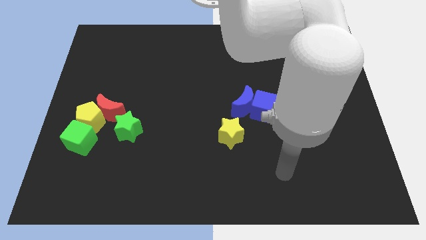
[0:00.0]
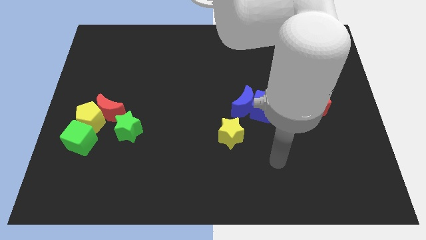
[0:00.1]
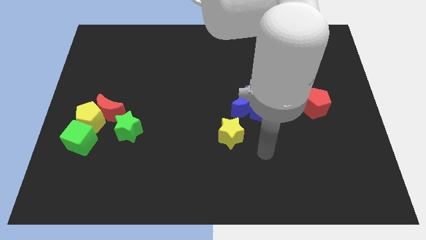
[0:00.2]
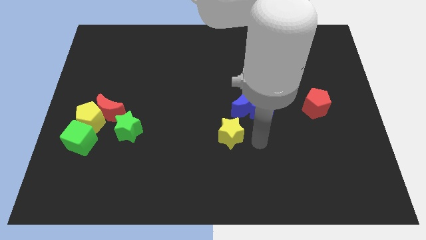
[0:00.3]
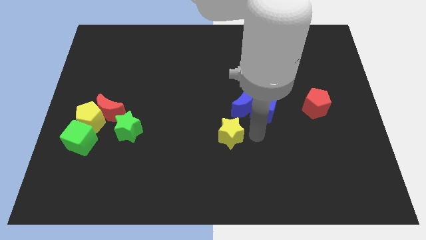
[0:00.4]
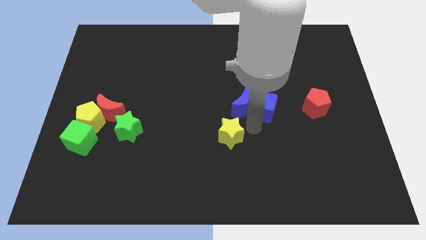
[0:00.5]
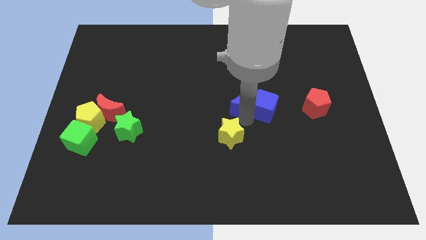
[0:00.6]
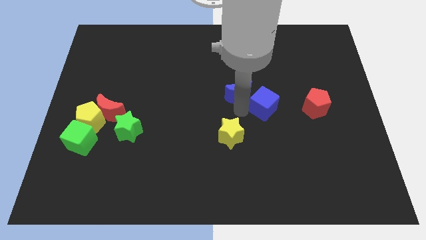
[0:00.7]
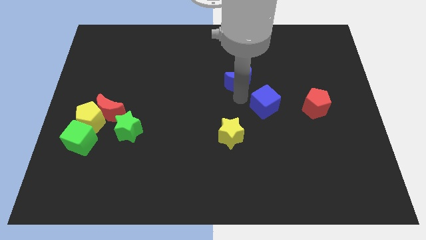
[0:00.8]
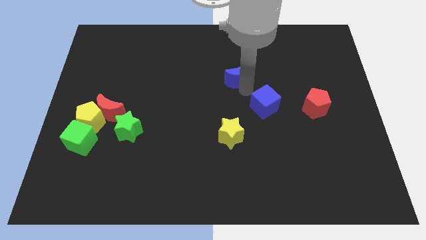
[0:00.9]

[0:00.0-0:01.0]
move the blue cube away from the blue moon

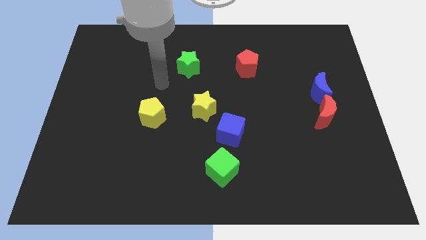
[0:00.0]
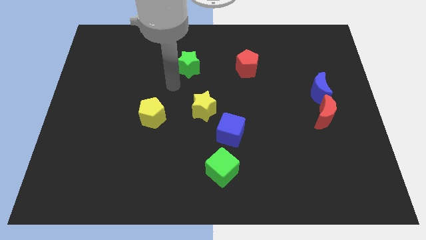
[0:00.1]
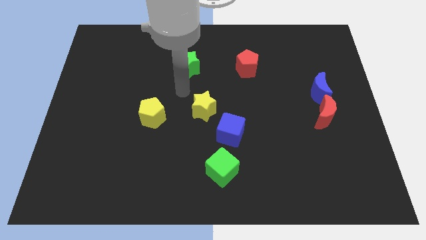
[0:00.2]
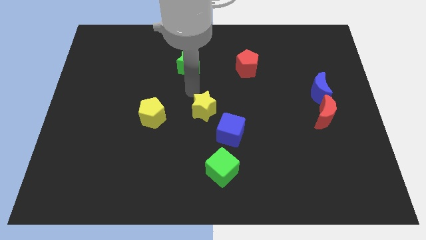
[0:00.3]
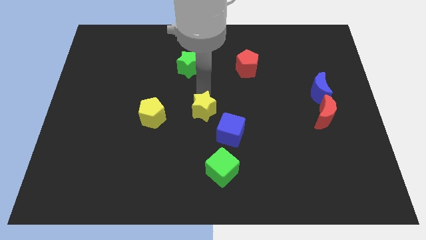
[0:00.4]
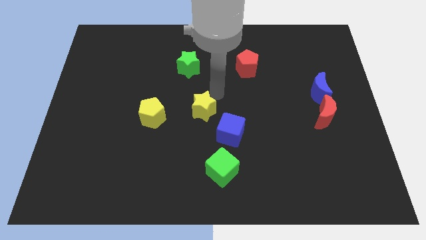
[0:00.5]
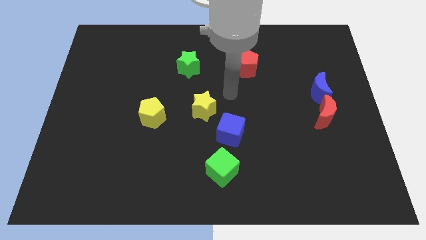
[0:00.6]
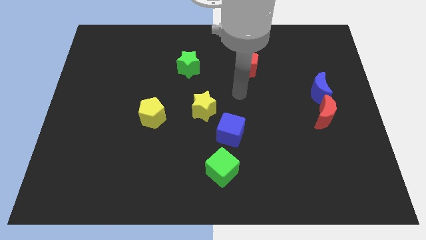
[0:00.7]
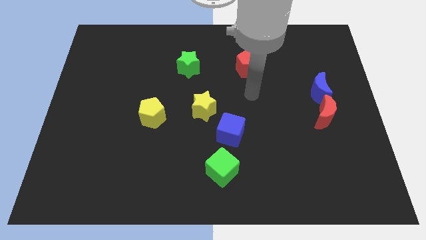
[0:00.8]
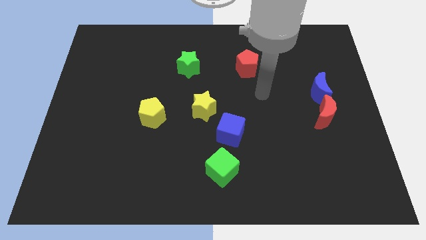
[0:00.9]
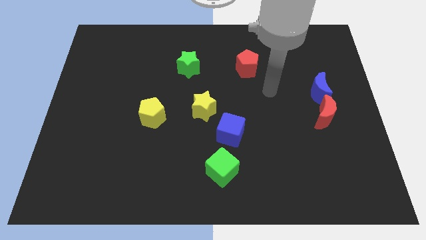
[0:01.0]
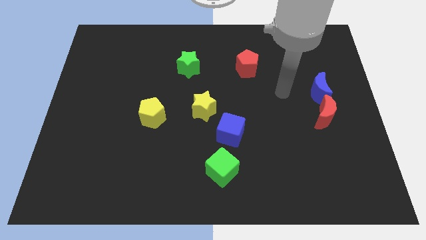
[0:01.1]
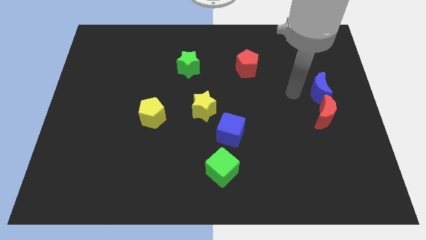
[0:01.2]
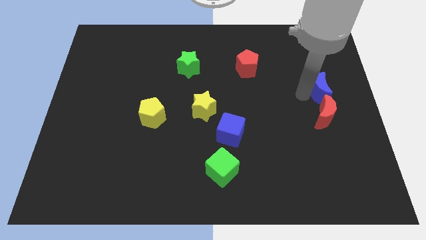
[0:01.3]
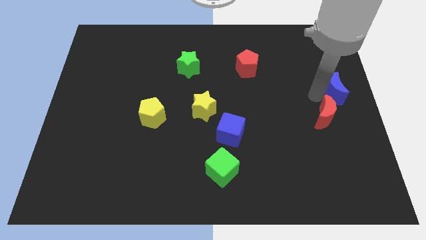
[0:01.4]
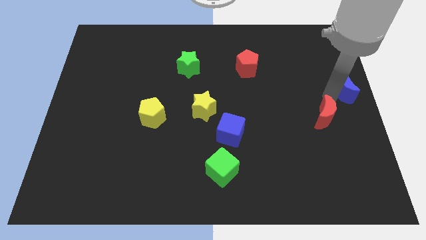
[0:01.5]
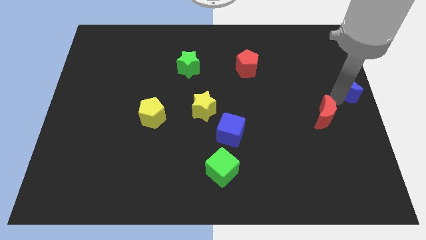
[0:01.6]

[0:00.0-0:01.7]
move the red moon away from the blue moon

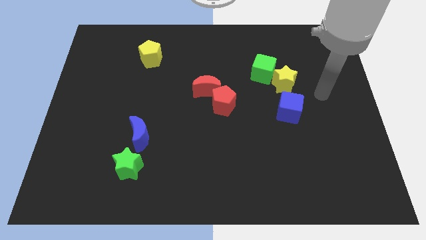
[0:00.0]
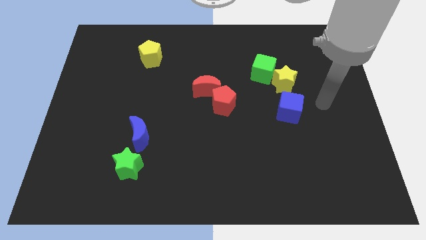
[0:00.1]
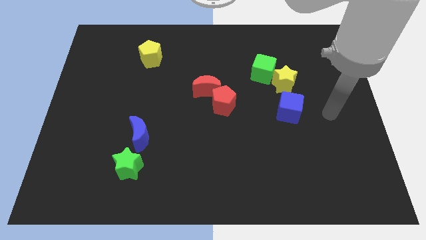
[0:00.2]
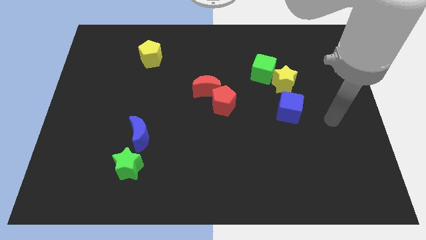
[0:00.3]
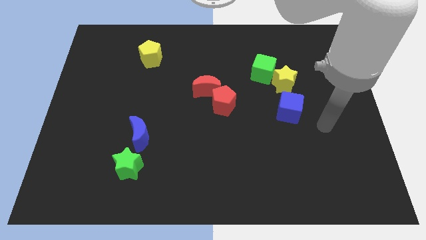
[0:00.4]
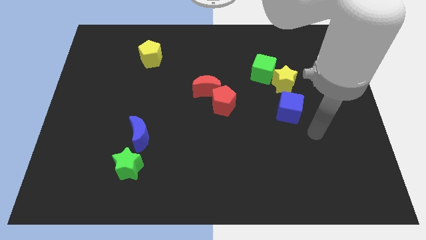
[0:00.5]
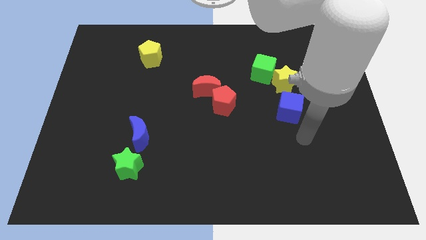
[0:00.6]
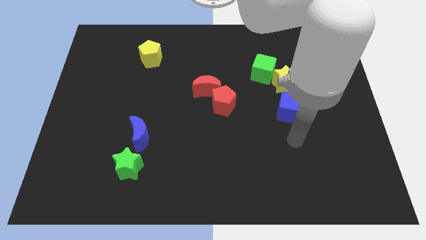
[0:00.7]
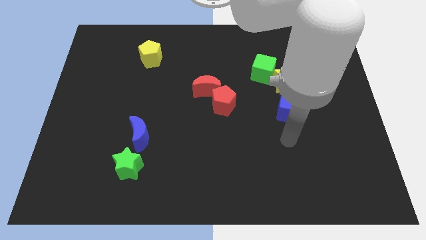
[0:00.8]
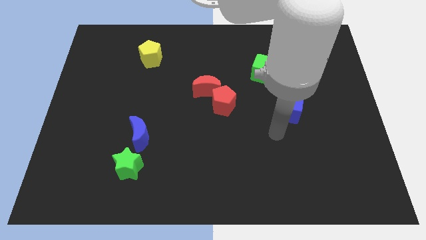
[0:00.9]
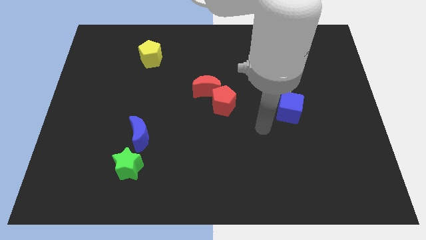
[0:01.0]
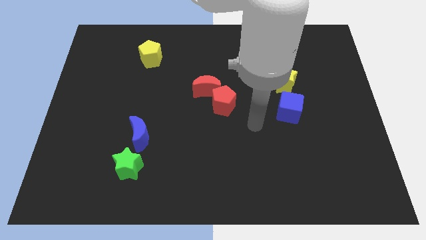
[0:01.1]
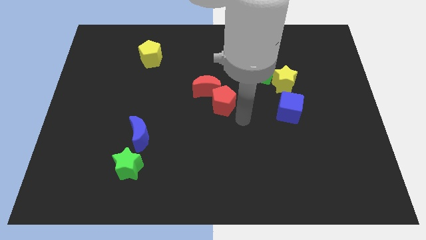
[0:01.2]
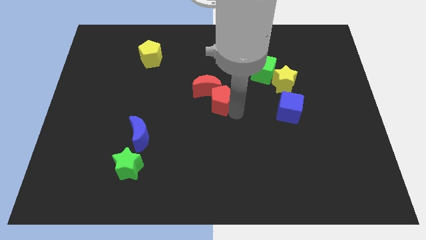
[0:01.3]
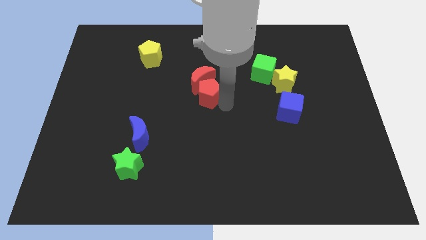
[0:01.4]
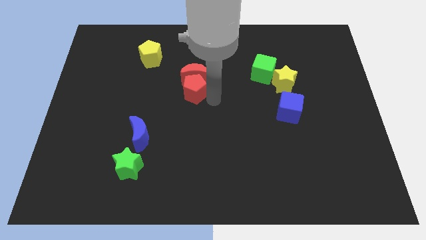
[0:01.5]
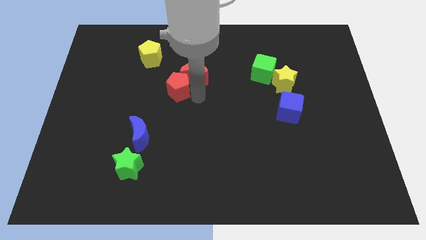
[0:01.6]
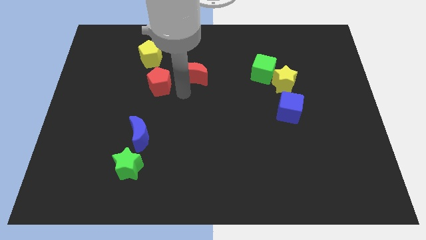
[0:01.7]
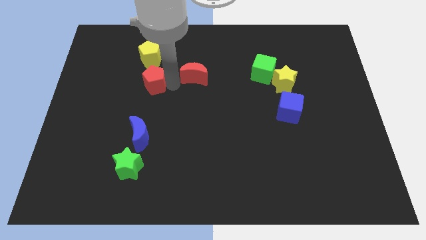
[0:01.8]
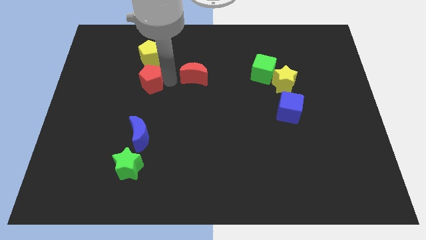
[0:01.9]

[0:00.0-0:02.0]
move the red moon away from the red pentagon

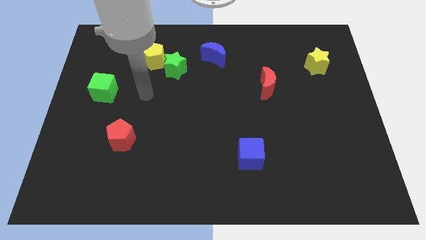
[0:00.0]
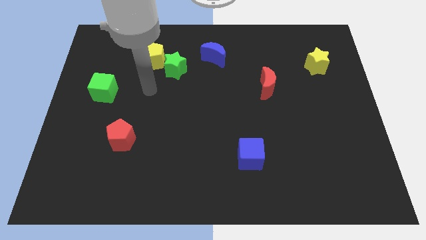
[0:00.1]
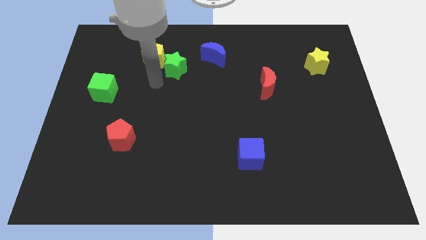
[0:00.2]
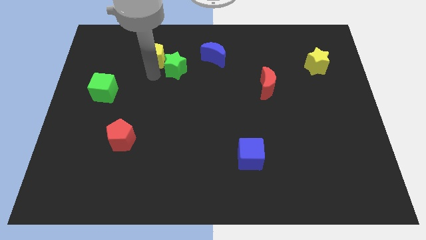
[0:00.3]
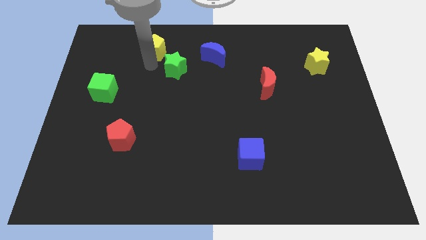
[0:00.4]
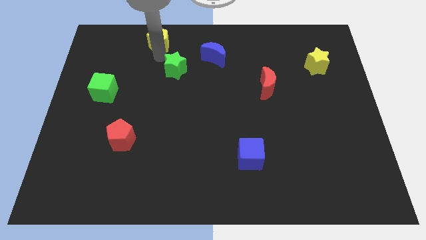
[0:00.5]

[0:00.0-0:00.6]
move the green star away from the yellow pentagon

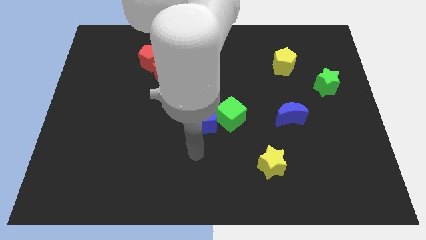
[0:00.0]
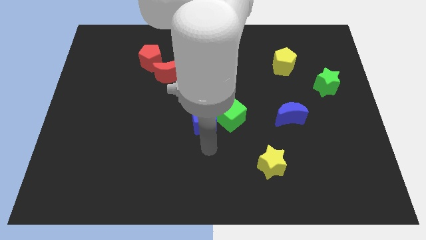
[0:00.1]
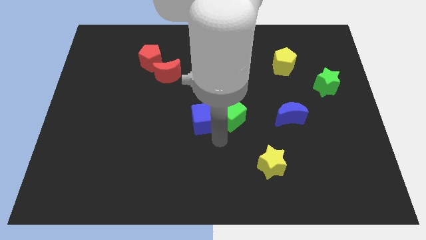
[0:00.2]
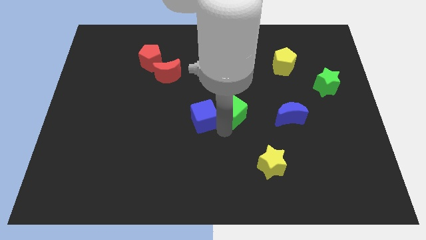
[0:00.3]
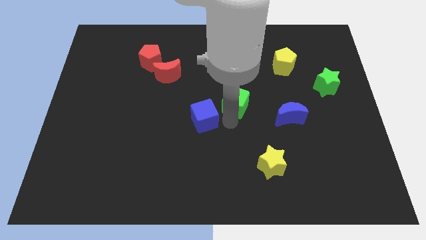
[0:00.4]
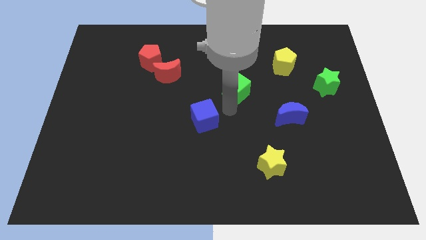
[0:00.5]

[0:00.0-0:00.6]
separate the blue cube from the green cube

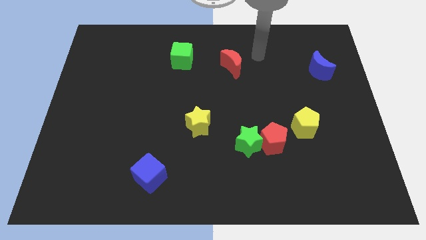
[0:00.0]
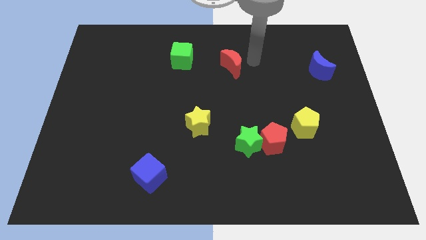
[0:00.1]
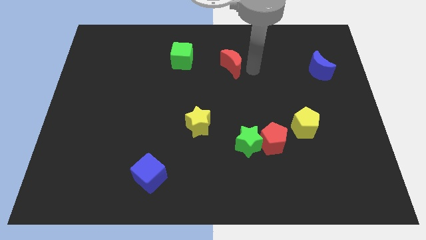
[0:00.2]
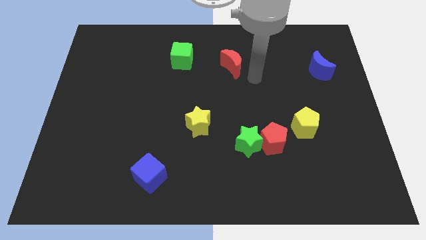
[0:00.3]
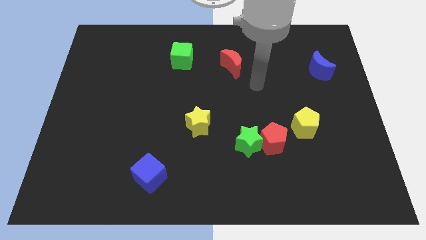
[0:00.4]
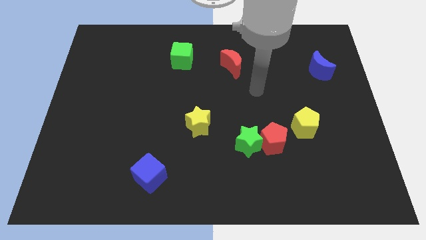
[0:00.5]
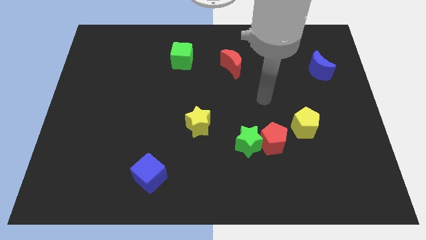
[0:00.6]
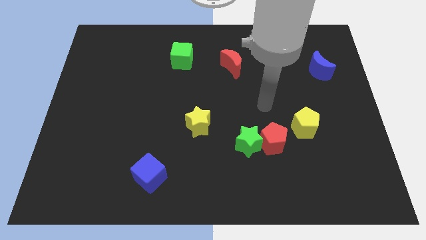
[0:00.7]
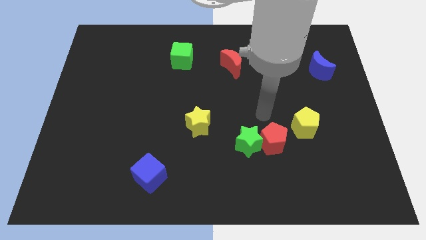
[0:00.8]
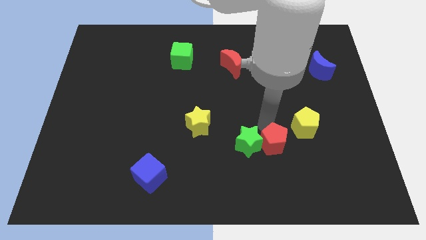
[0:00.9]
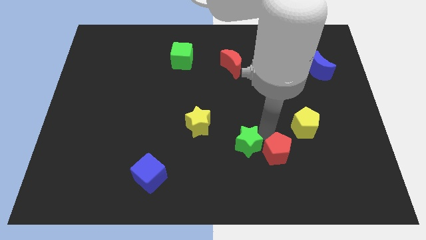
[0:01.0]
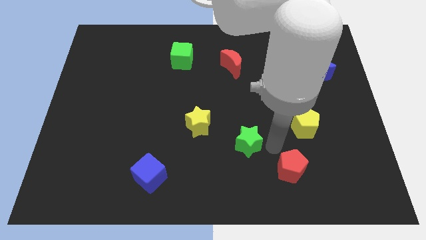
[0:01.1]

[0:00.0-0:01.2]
separate the green star from the red pentagon

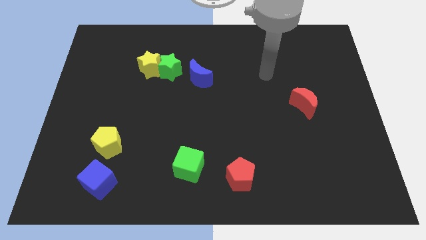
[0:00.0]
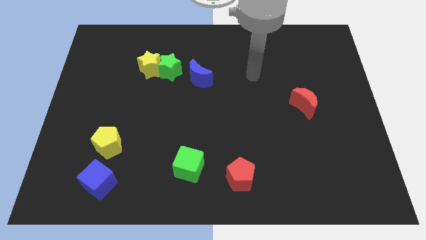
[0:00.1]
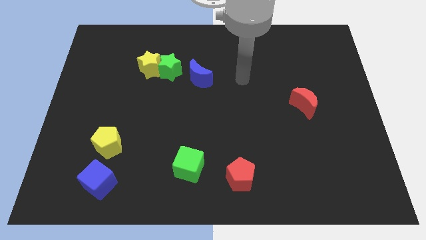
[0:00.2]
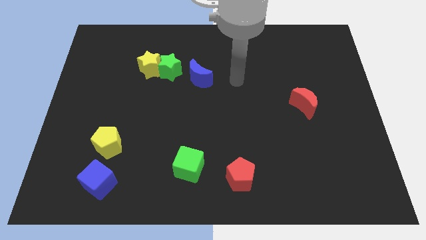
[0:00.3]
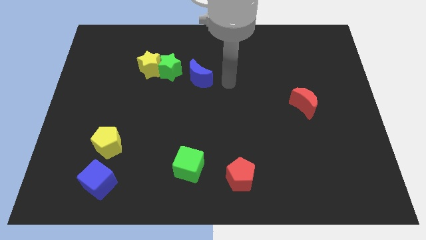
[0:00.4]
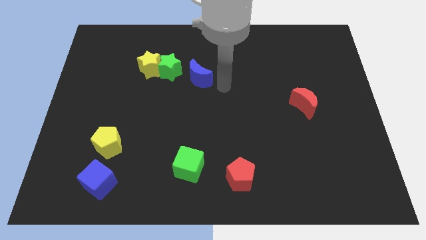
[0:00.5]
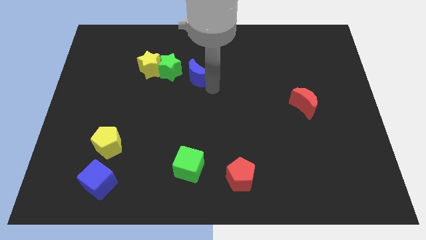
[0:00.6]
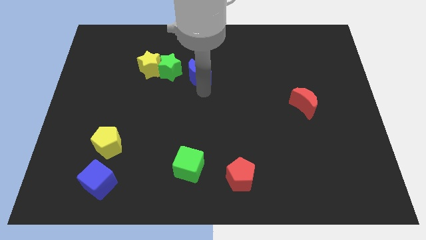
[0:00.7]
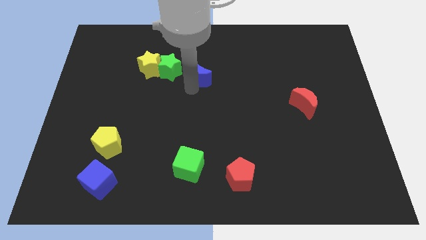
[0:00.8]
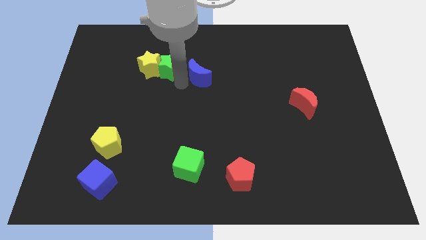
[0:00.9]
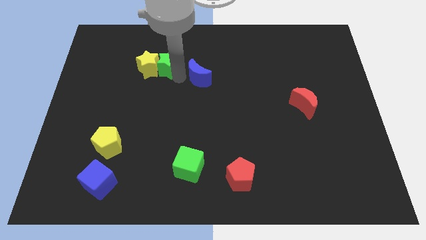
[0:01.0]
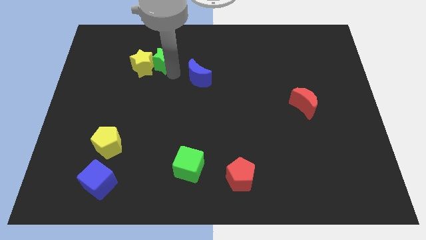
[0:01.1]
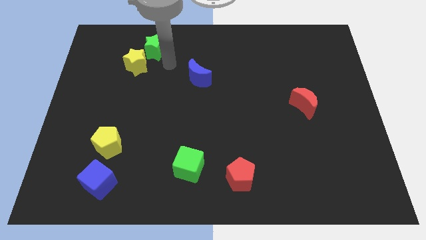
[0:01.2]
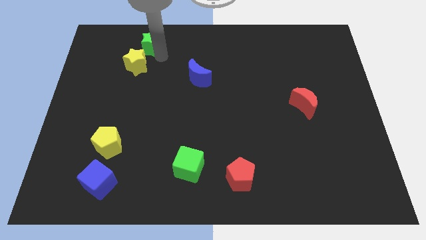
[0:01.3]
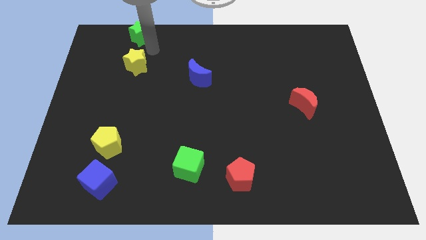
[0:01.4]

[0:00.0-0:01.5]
separate the yellow star from the green star

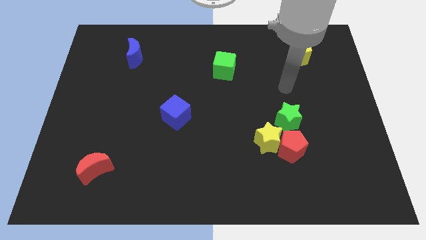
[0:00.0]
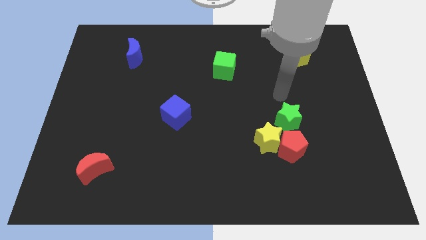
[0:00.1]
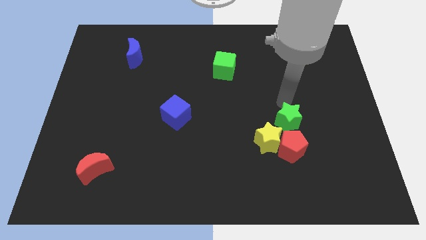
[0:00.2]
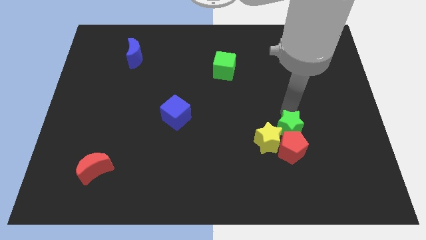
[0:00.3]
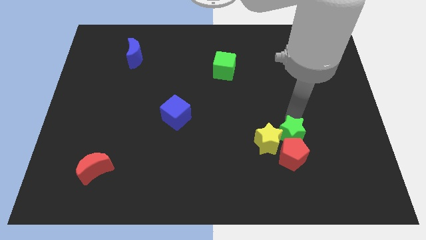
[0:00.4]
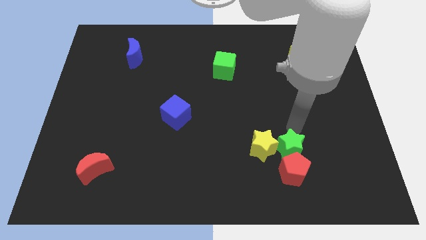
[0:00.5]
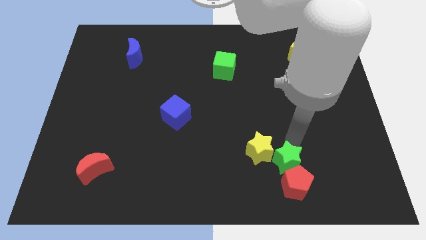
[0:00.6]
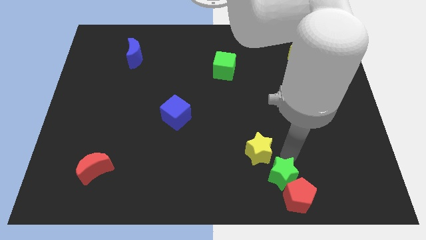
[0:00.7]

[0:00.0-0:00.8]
separate the yellow star from the red pentagon and green star
